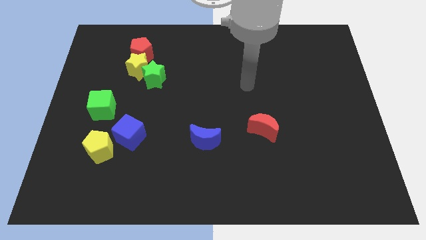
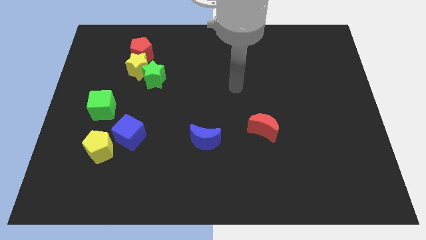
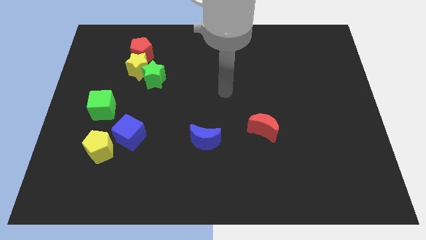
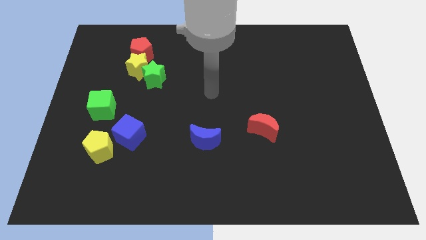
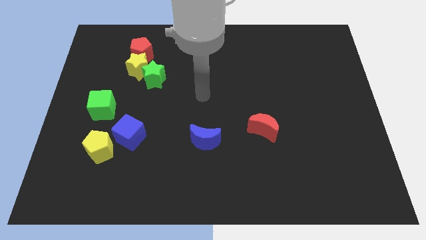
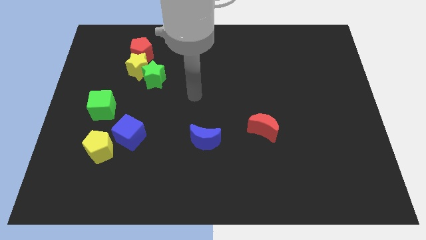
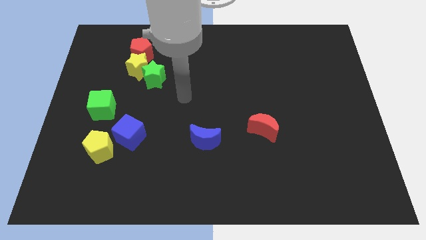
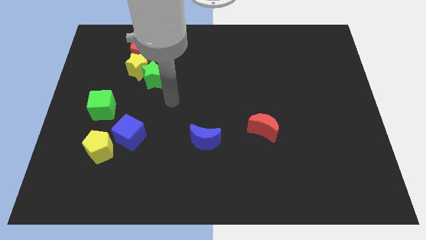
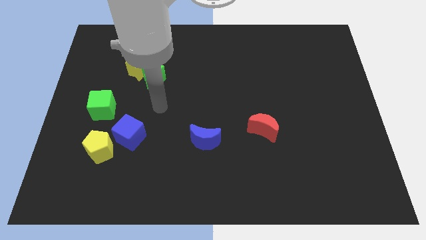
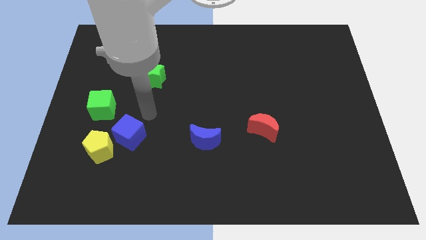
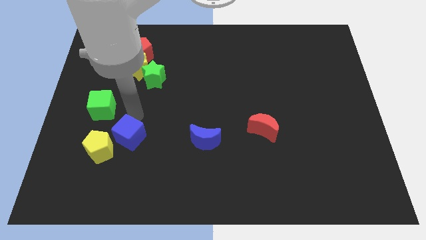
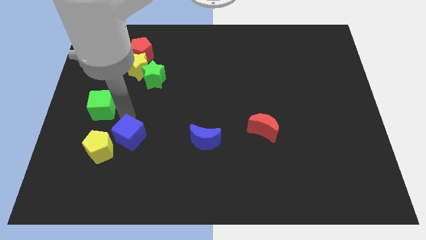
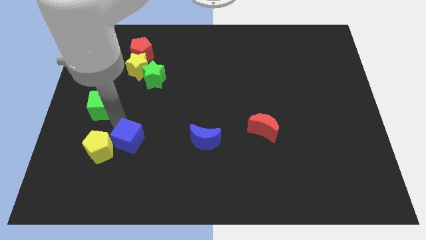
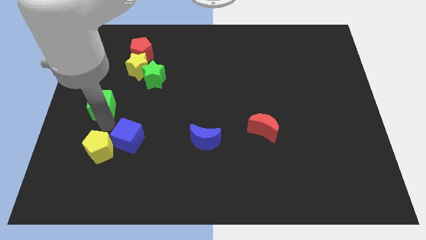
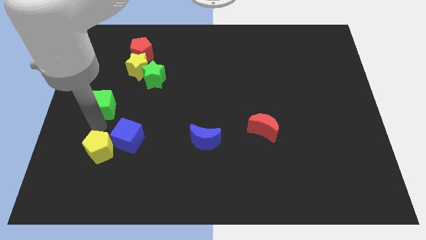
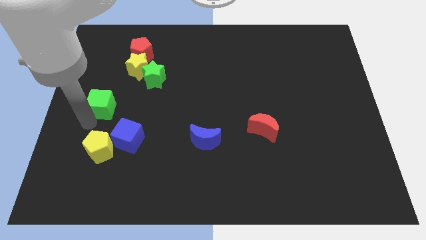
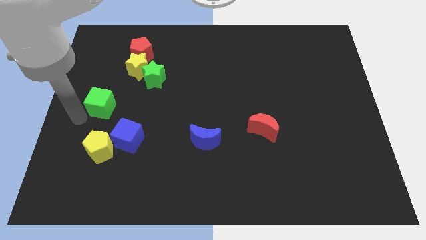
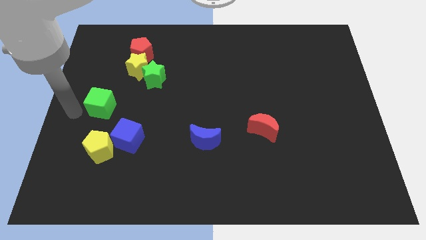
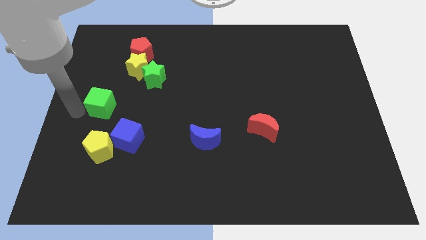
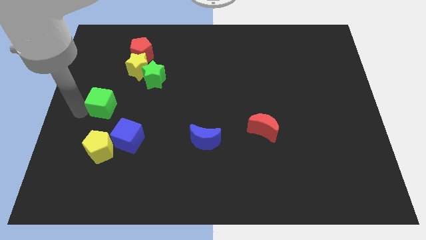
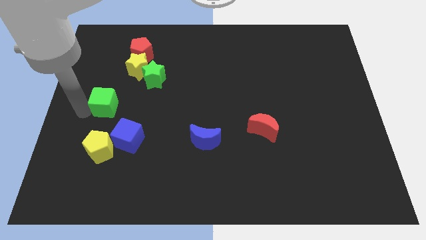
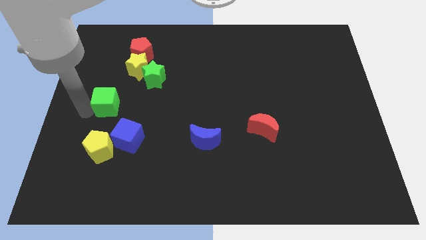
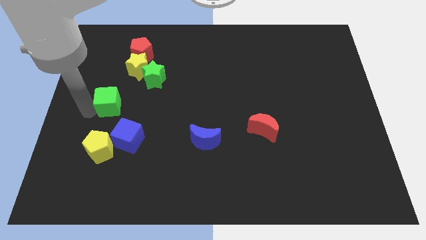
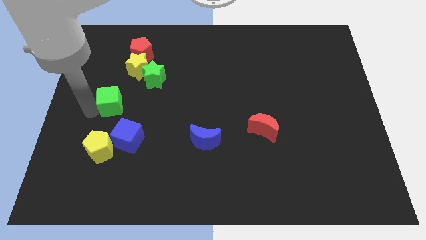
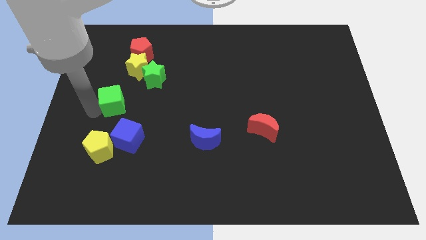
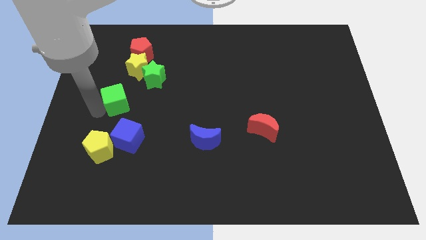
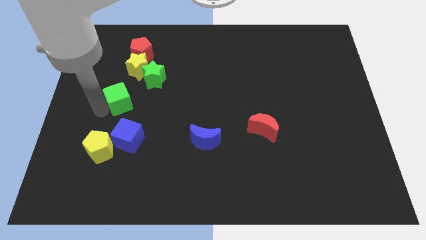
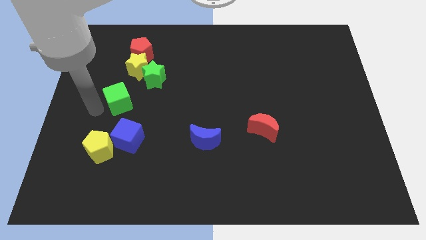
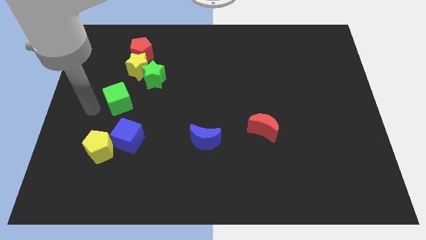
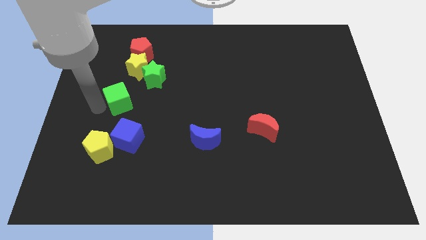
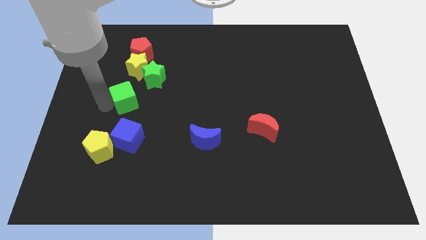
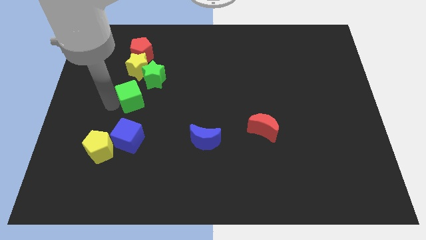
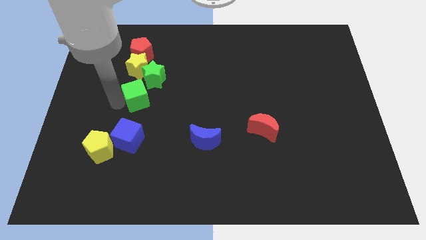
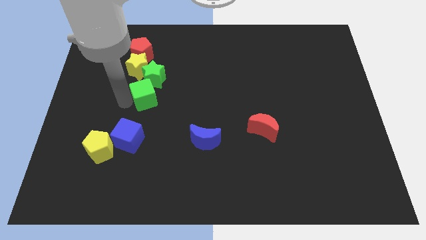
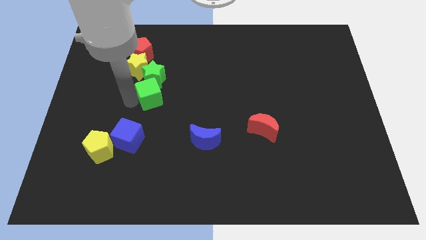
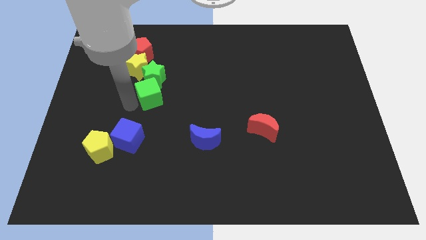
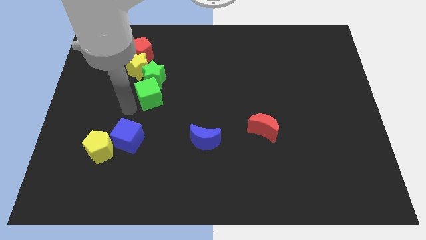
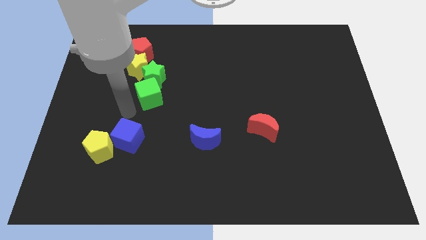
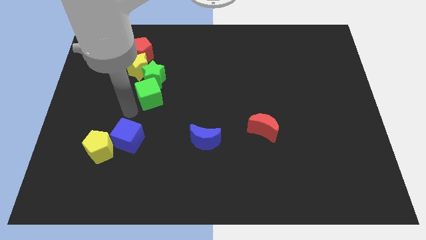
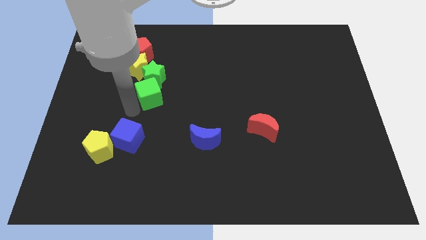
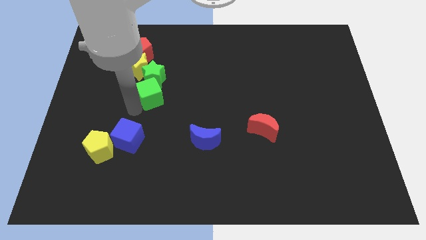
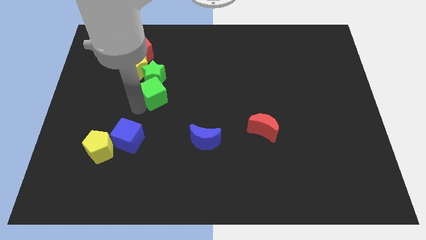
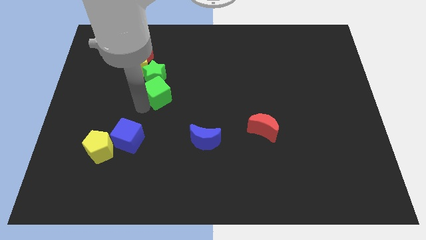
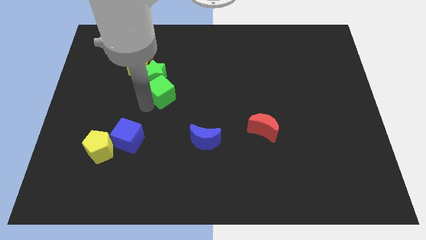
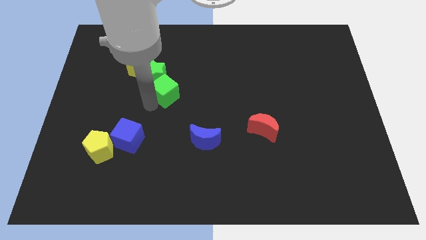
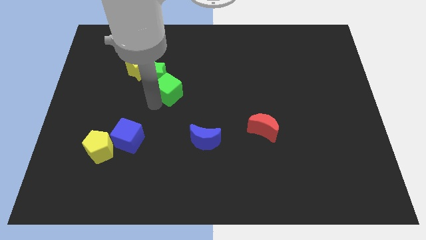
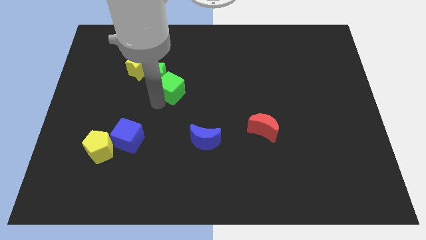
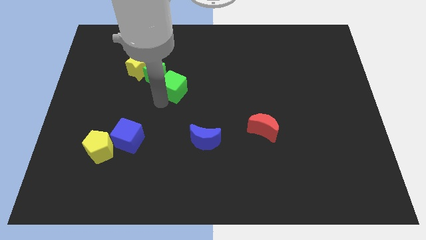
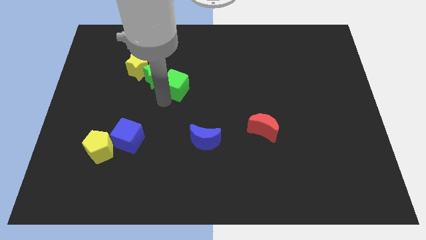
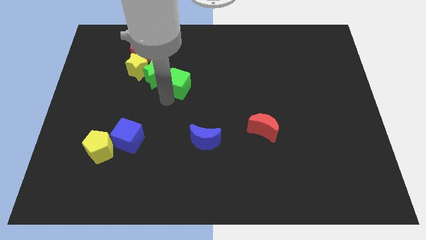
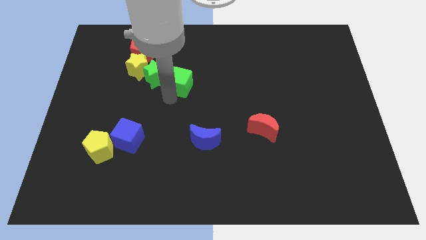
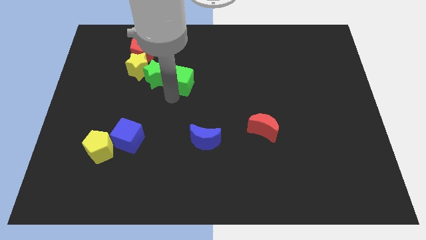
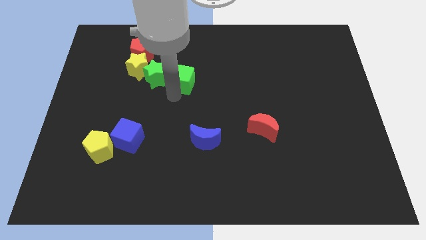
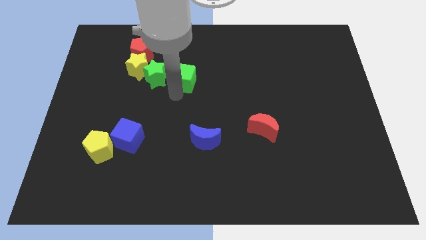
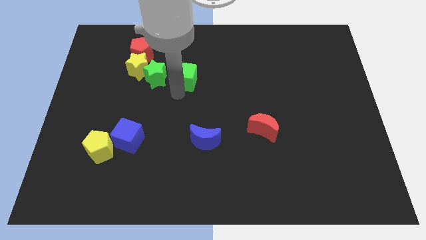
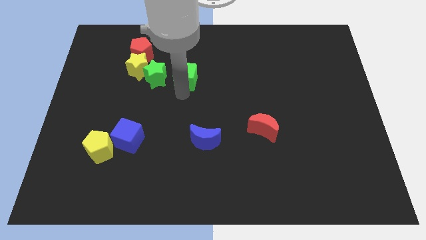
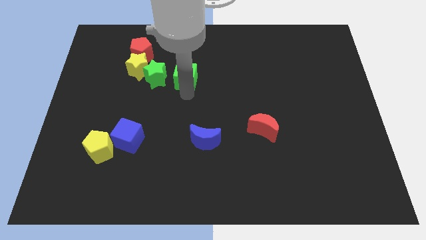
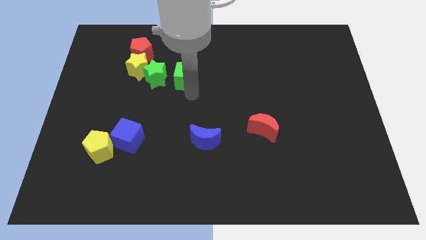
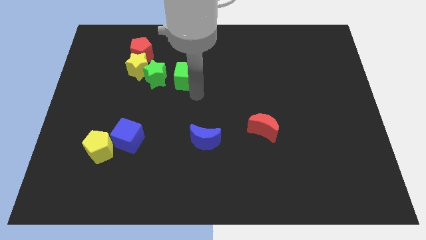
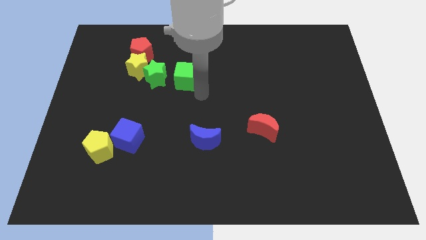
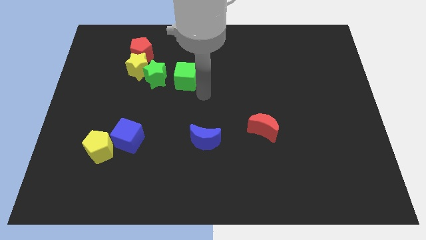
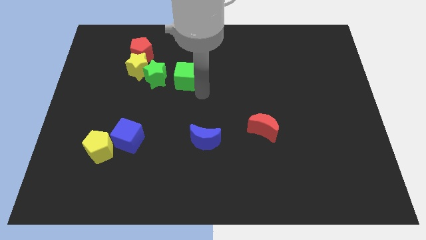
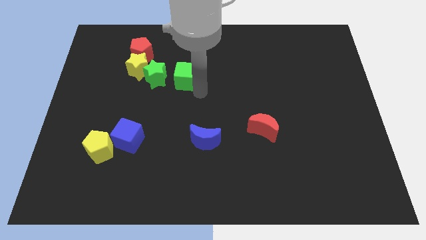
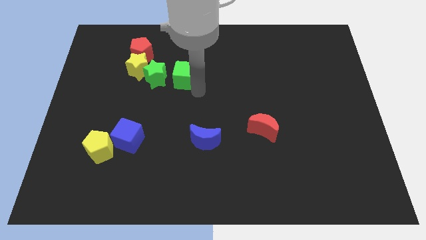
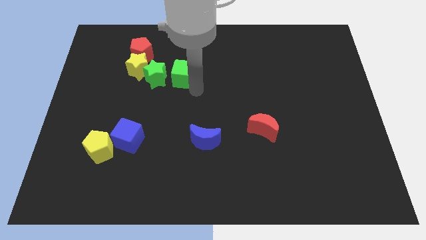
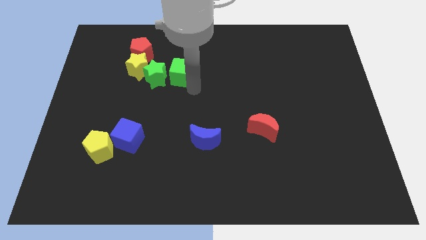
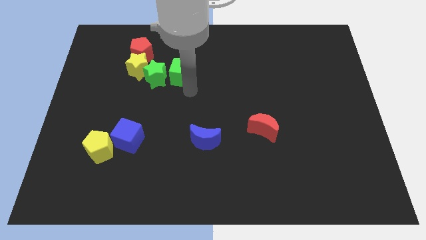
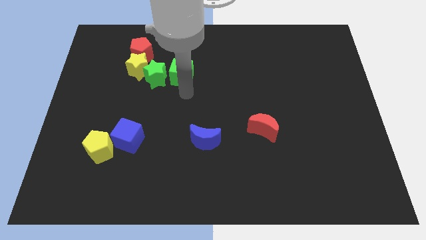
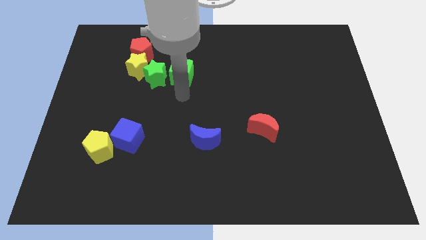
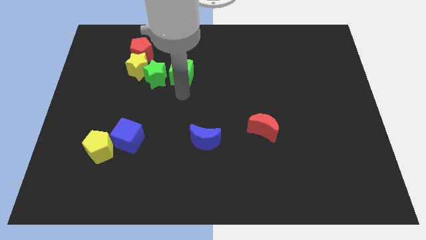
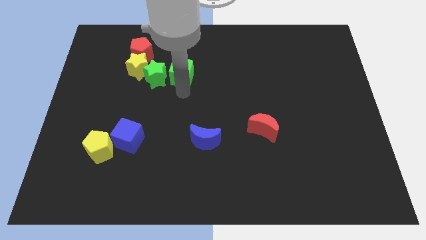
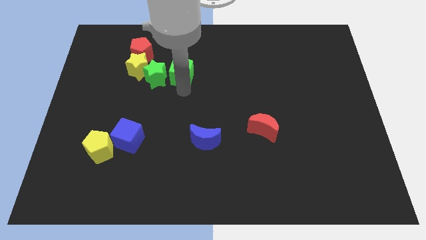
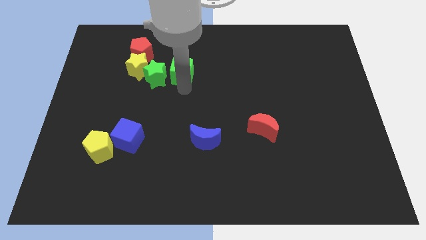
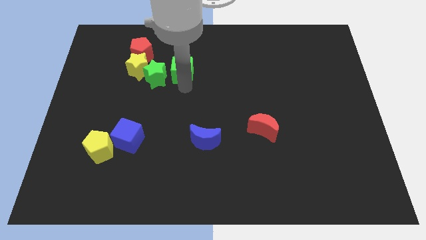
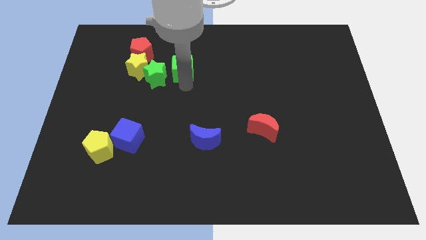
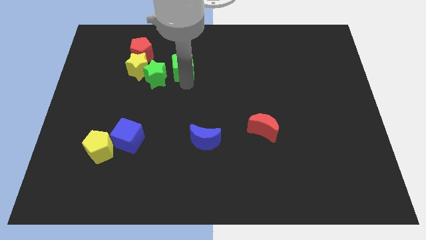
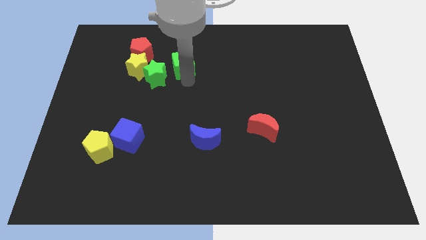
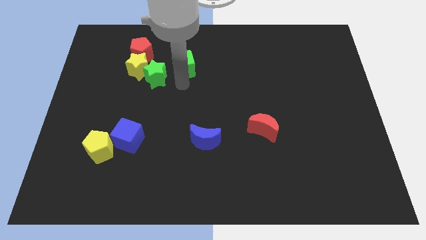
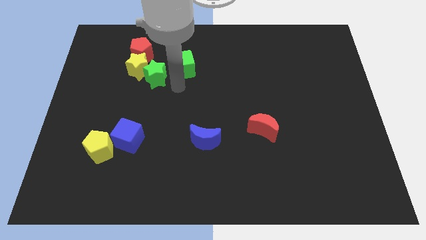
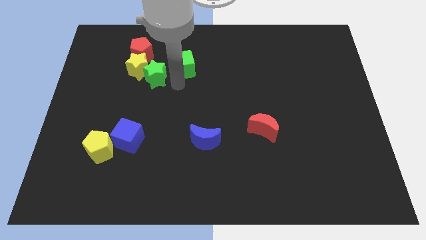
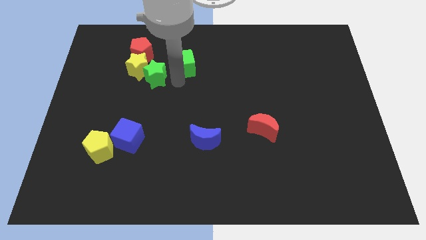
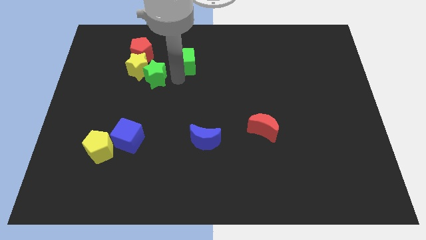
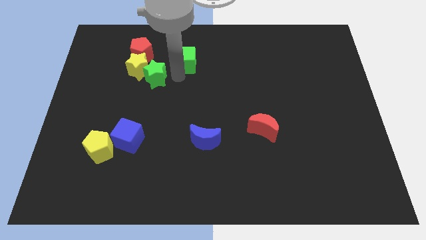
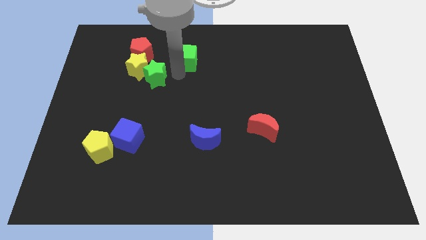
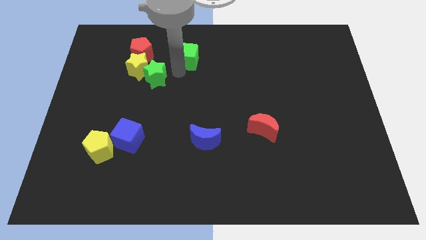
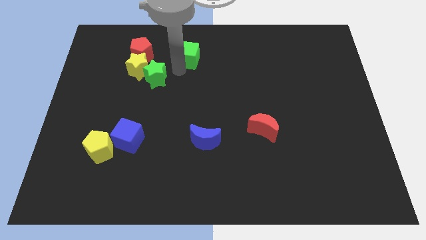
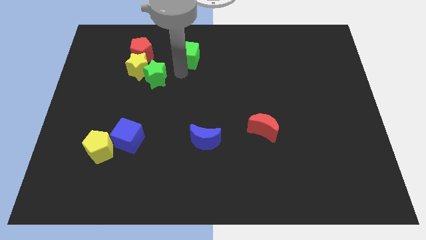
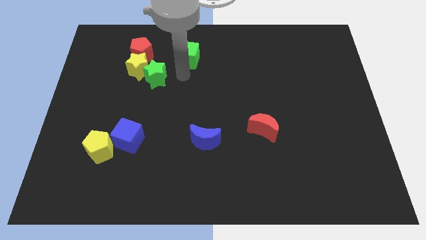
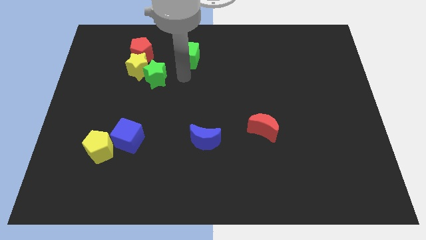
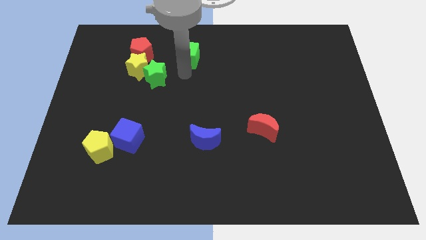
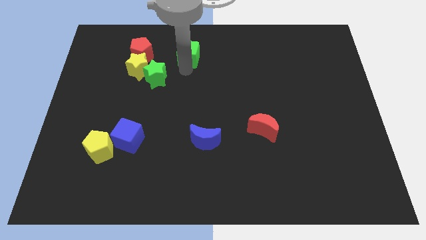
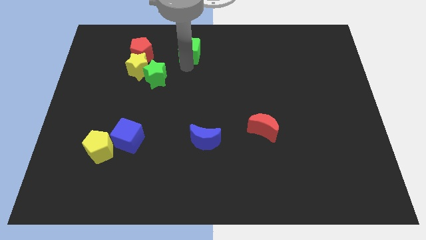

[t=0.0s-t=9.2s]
move the green cube to the top side
